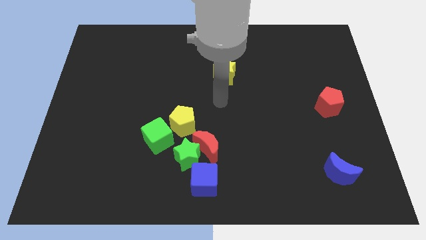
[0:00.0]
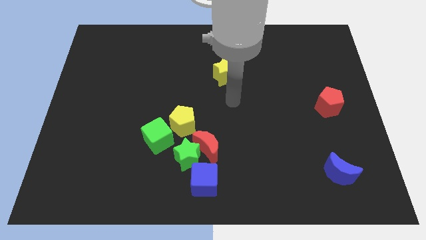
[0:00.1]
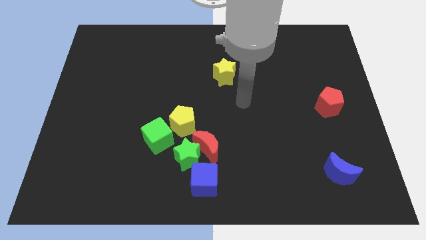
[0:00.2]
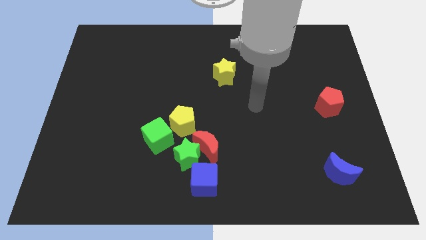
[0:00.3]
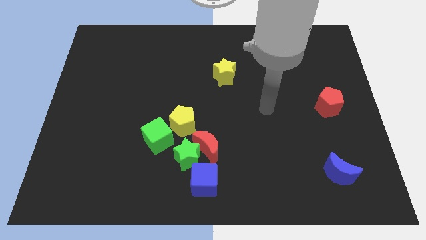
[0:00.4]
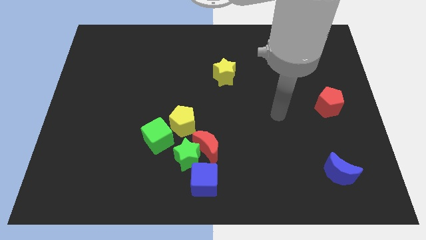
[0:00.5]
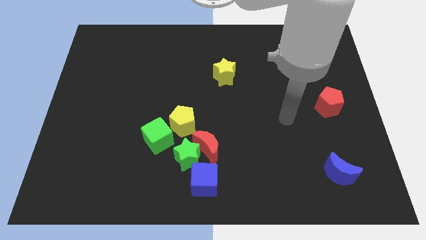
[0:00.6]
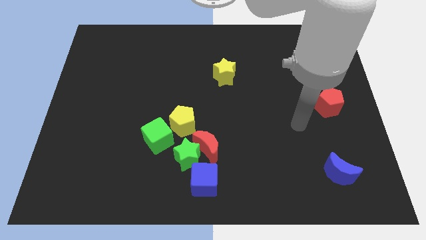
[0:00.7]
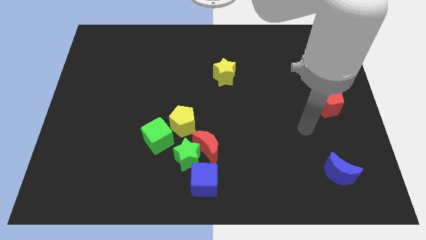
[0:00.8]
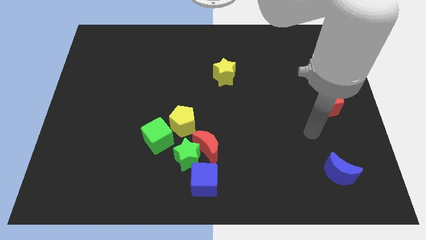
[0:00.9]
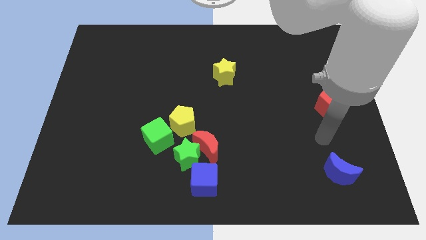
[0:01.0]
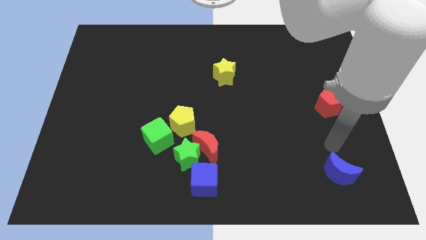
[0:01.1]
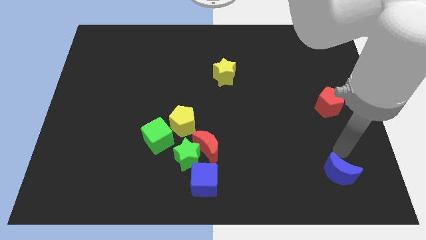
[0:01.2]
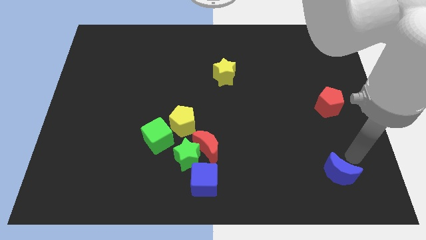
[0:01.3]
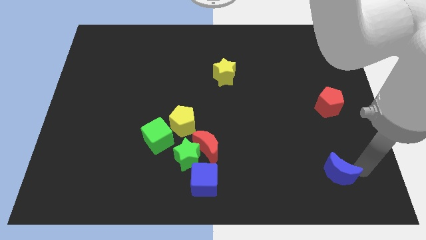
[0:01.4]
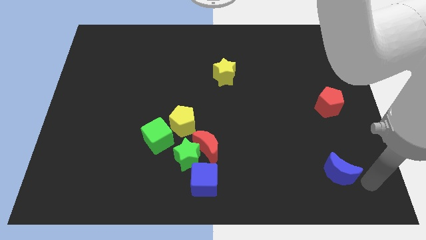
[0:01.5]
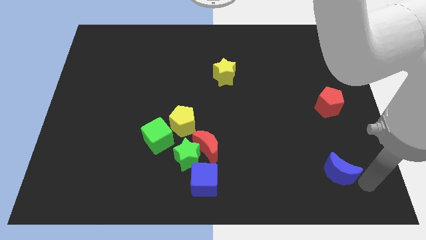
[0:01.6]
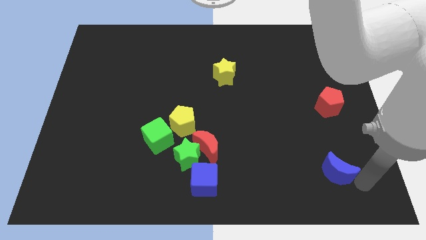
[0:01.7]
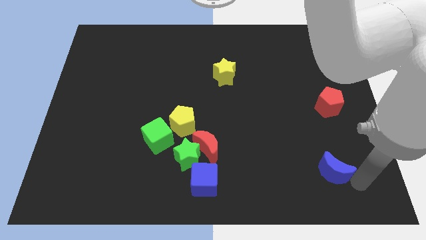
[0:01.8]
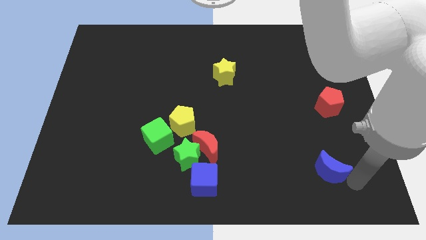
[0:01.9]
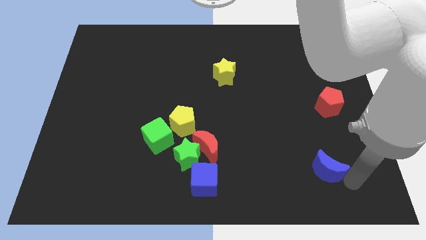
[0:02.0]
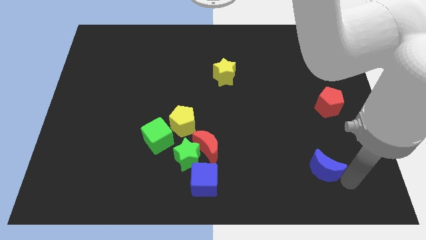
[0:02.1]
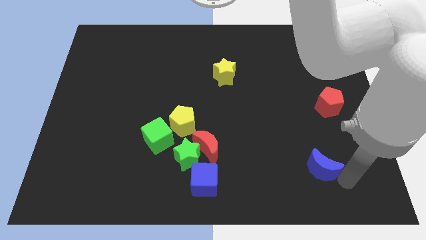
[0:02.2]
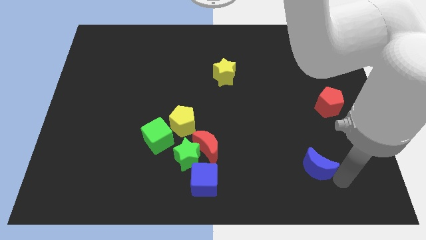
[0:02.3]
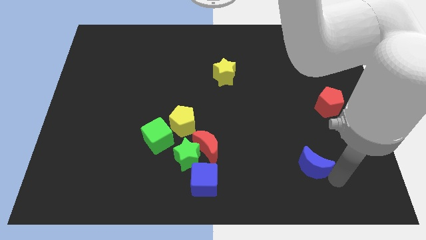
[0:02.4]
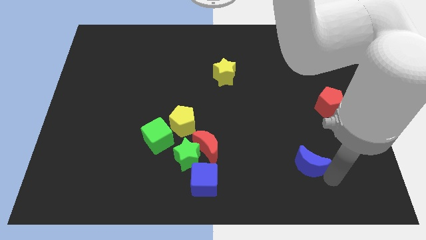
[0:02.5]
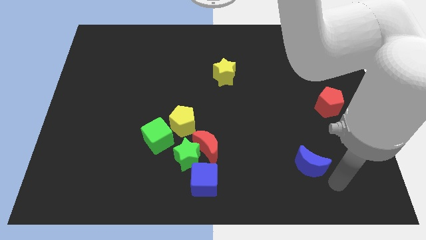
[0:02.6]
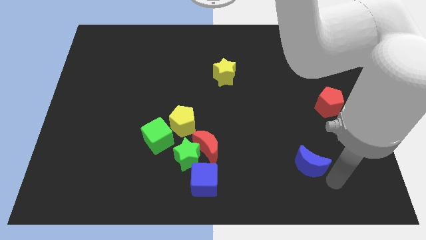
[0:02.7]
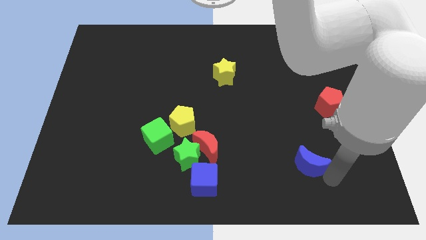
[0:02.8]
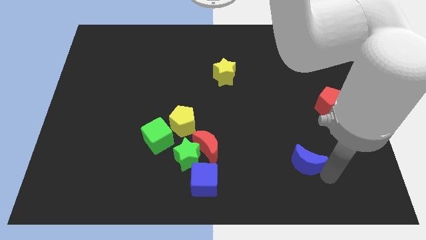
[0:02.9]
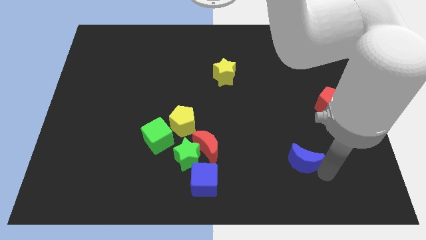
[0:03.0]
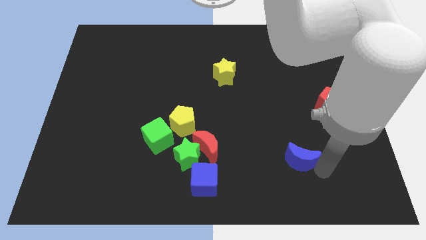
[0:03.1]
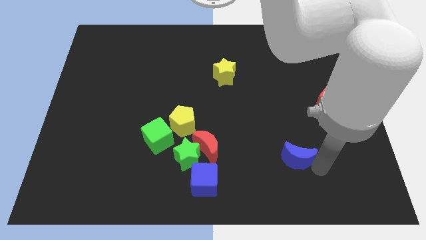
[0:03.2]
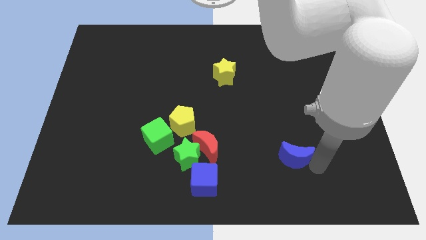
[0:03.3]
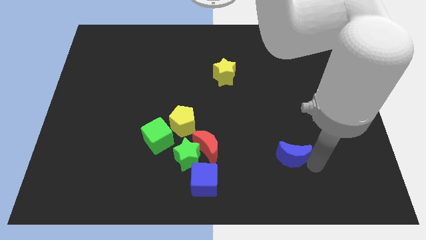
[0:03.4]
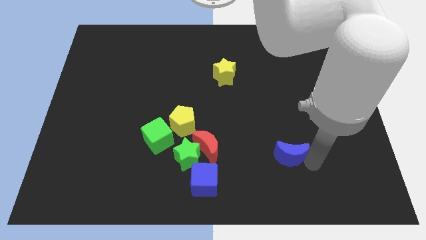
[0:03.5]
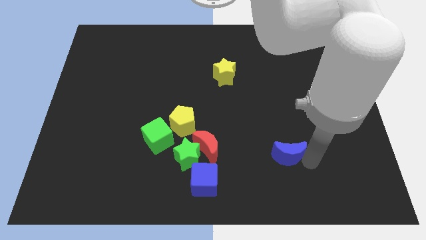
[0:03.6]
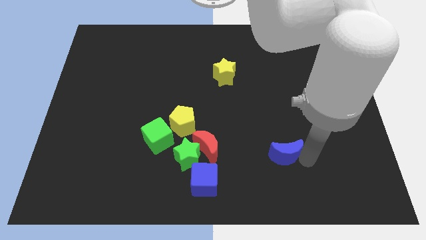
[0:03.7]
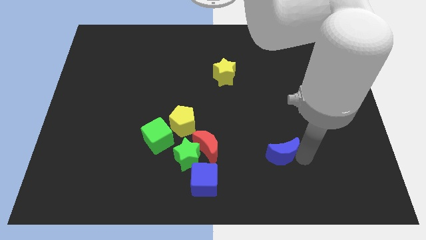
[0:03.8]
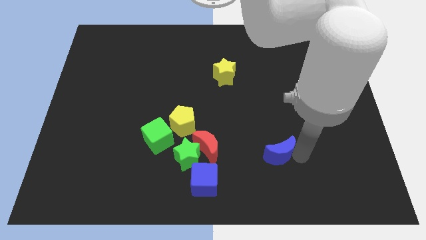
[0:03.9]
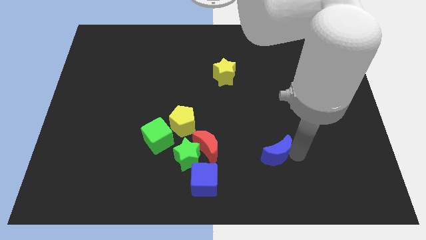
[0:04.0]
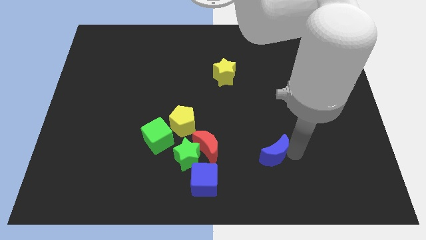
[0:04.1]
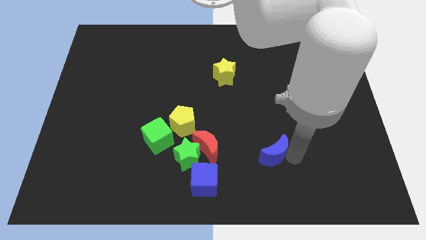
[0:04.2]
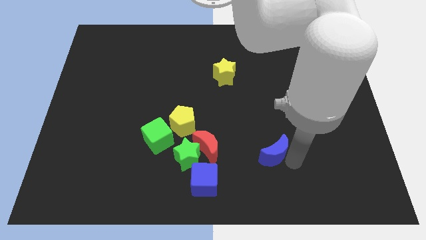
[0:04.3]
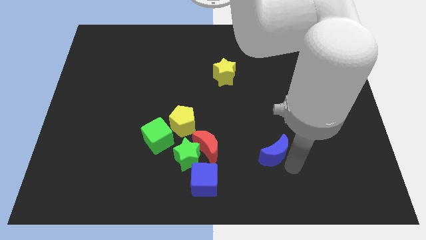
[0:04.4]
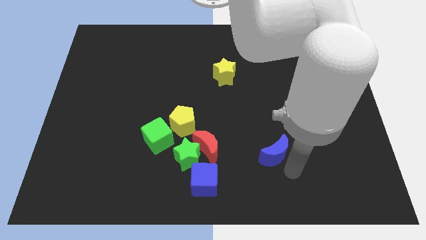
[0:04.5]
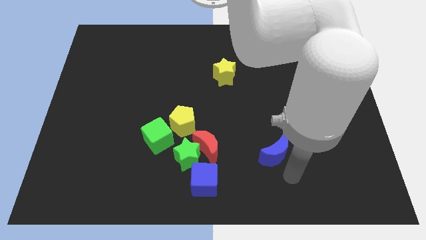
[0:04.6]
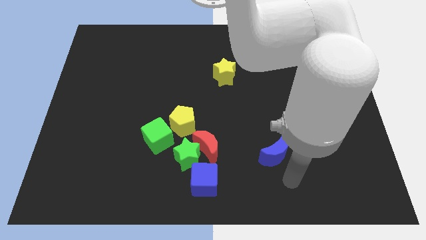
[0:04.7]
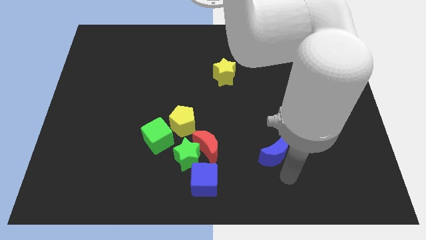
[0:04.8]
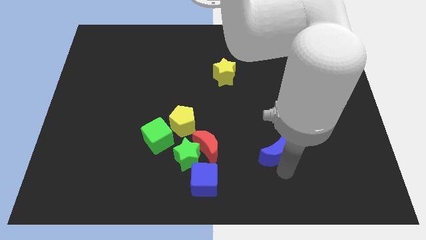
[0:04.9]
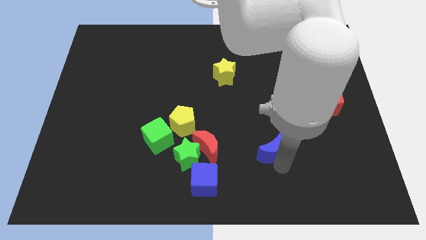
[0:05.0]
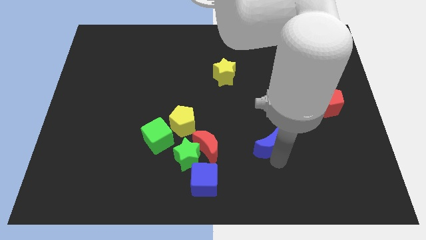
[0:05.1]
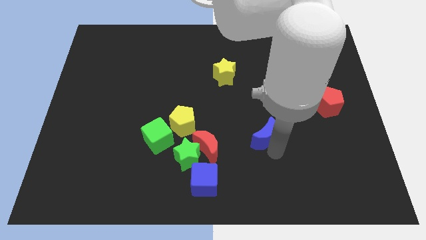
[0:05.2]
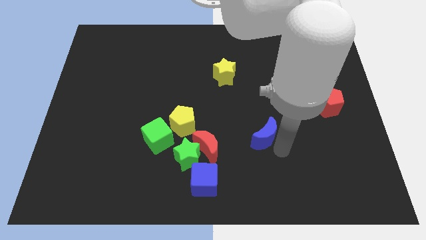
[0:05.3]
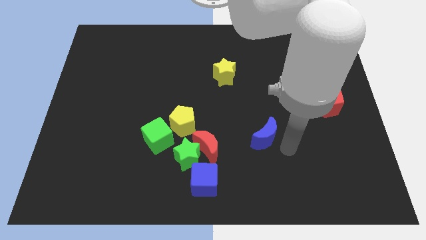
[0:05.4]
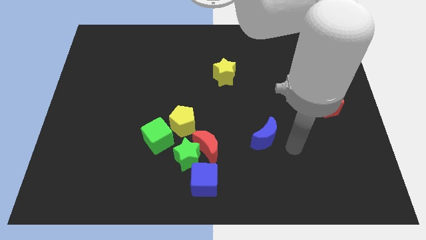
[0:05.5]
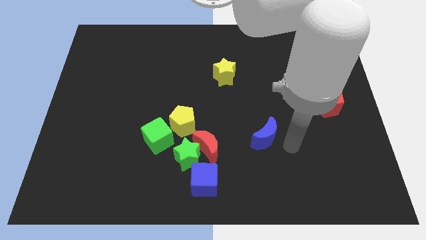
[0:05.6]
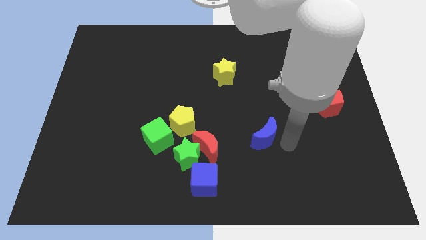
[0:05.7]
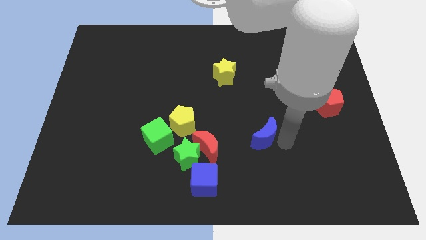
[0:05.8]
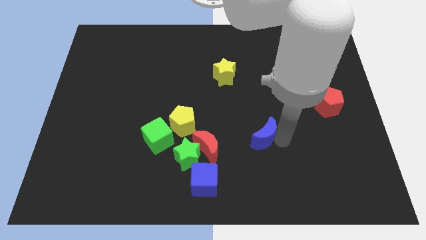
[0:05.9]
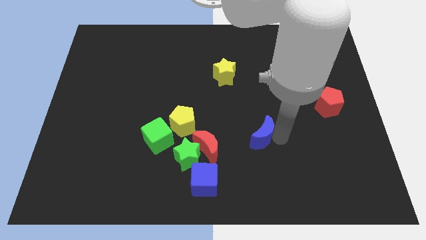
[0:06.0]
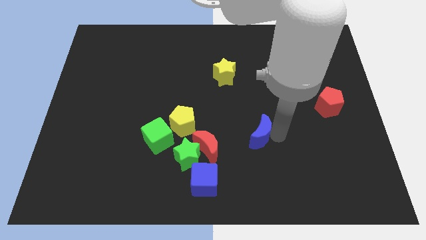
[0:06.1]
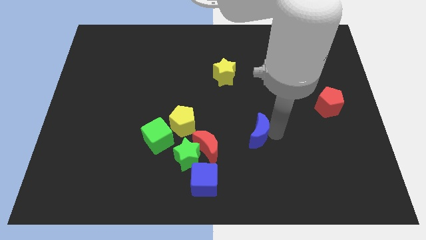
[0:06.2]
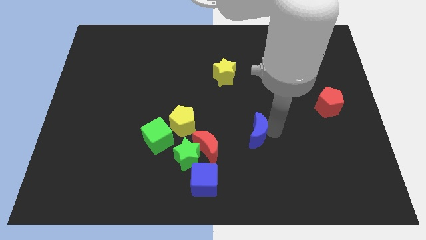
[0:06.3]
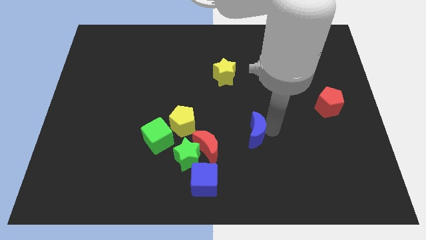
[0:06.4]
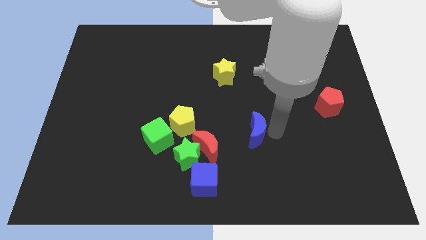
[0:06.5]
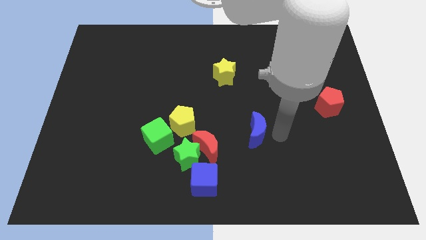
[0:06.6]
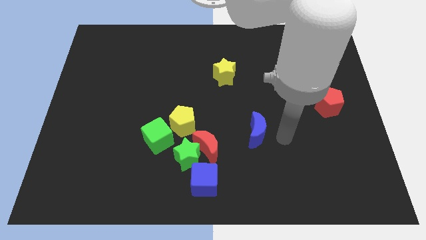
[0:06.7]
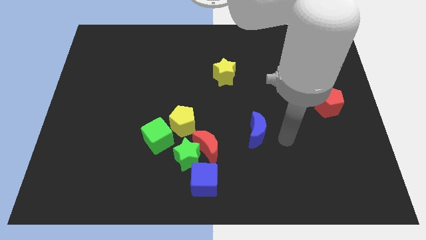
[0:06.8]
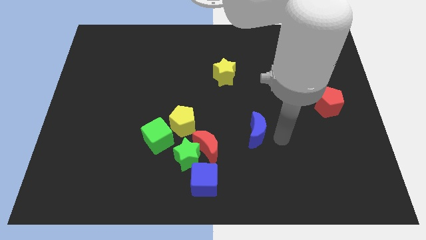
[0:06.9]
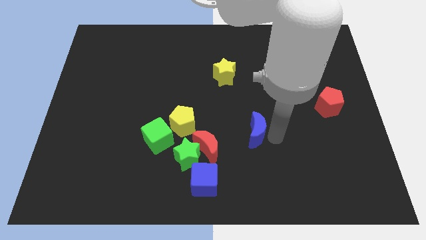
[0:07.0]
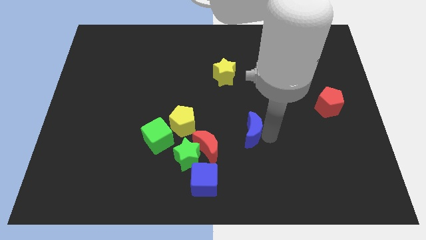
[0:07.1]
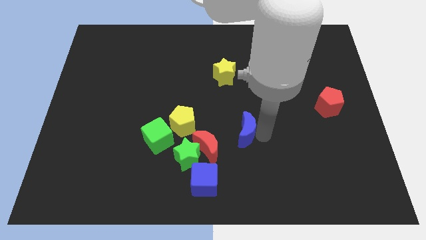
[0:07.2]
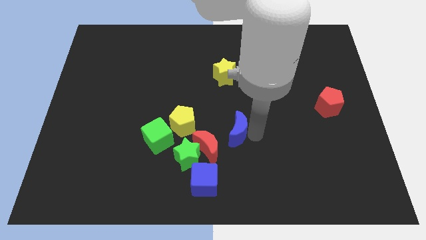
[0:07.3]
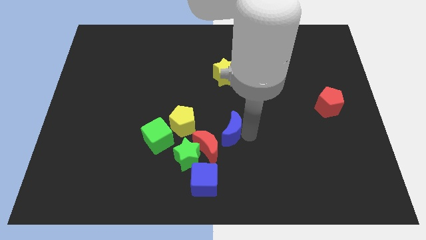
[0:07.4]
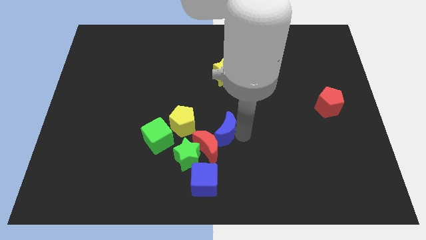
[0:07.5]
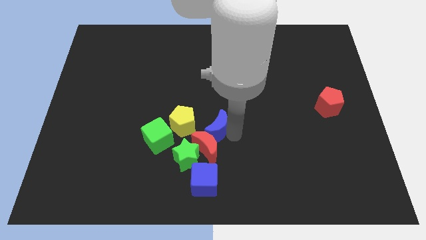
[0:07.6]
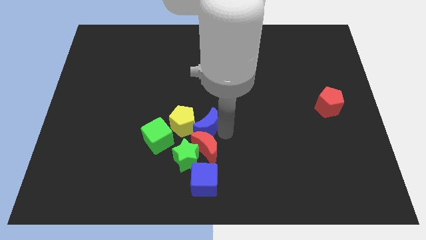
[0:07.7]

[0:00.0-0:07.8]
slide the blue moon to the yellow pentagon
